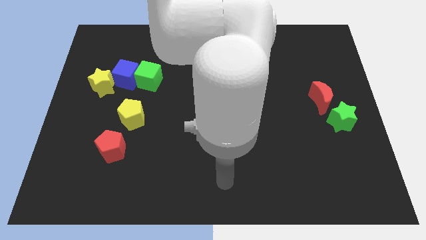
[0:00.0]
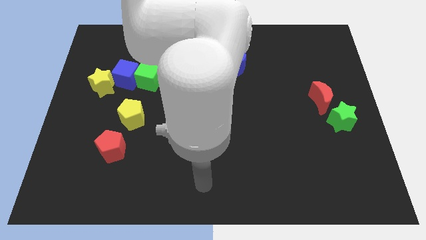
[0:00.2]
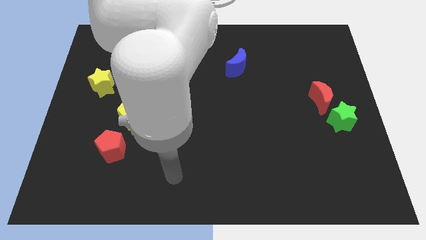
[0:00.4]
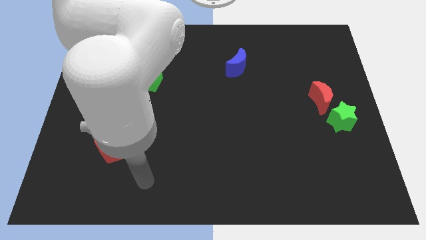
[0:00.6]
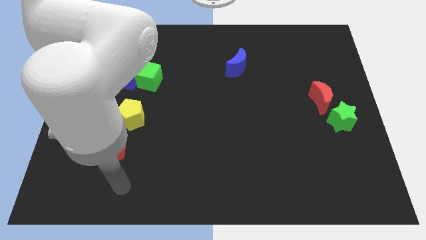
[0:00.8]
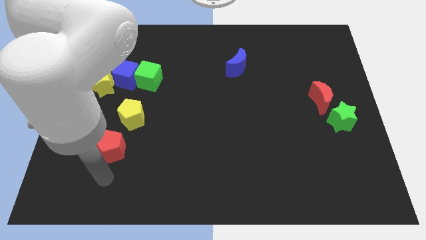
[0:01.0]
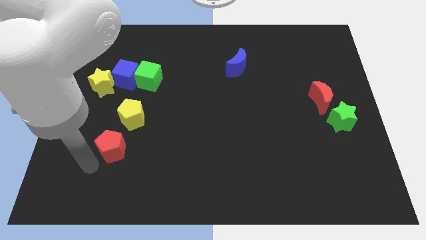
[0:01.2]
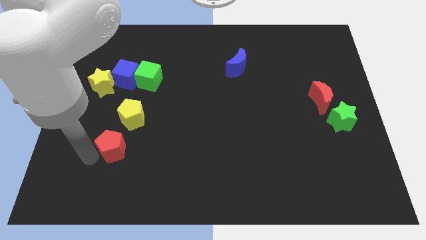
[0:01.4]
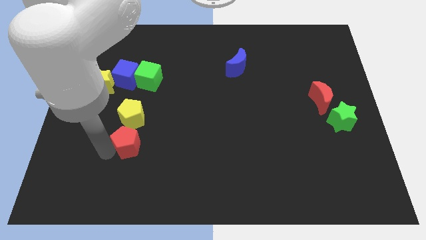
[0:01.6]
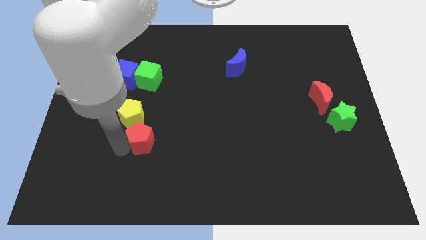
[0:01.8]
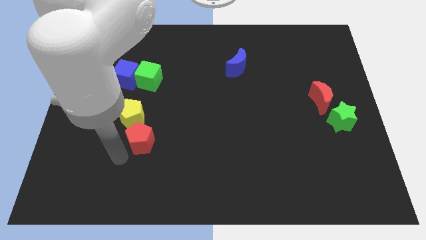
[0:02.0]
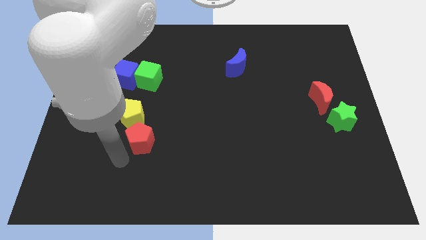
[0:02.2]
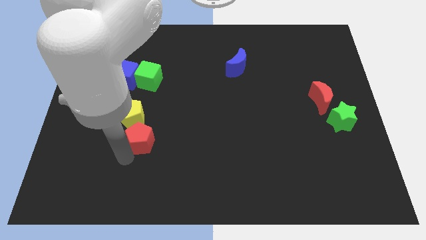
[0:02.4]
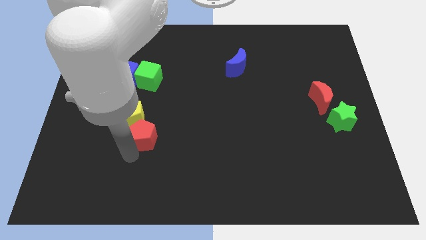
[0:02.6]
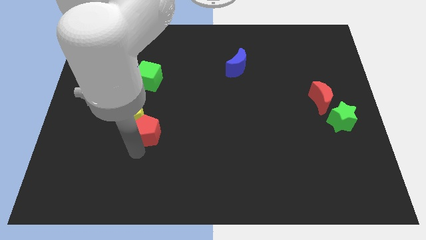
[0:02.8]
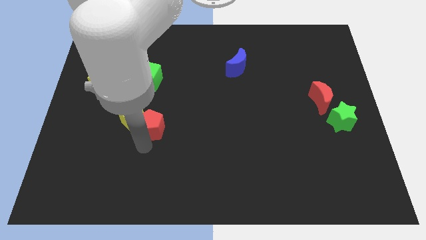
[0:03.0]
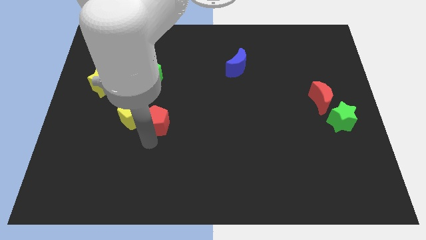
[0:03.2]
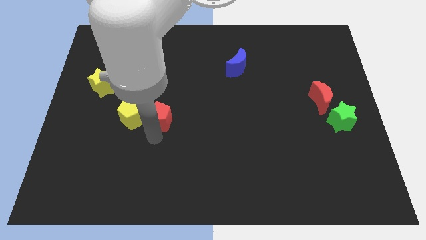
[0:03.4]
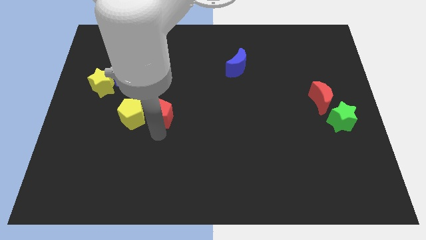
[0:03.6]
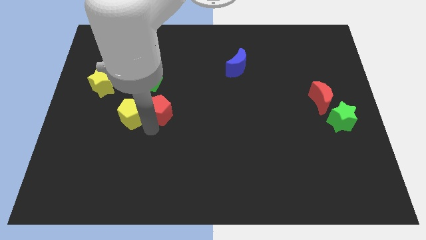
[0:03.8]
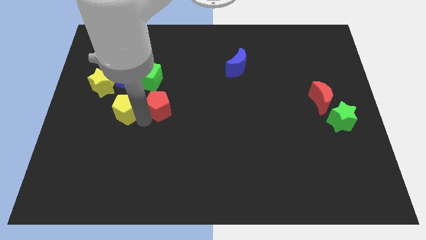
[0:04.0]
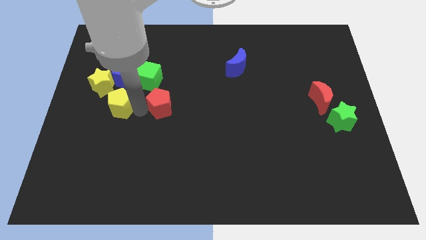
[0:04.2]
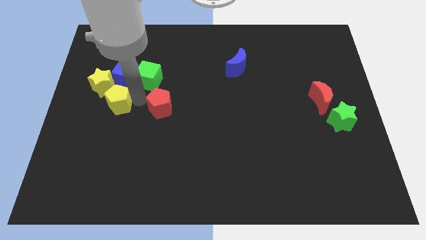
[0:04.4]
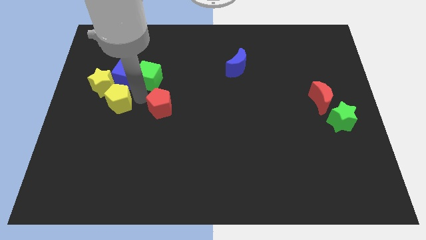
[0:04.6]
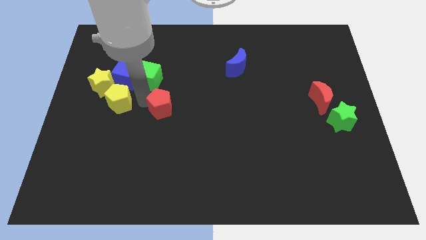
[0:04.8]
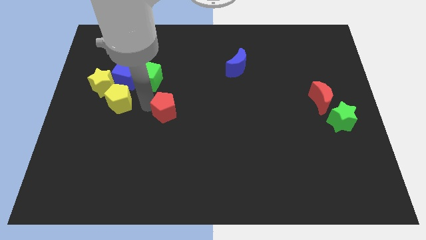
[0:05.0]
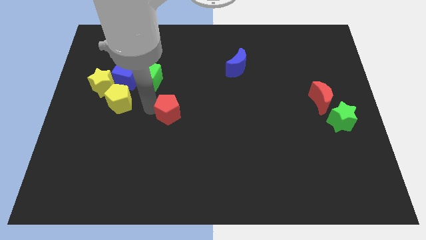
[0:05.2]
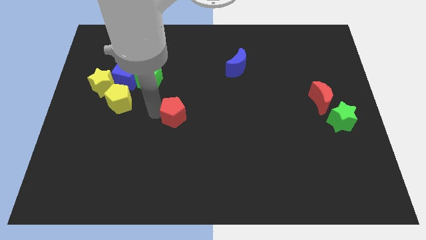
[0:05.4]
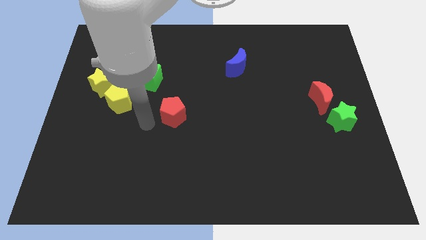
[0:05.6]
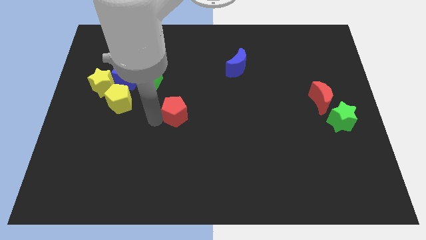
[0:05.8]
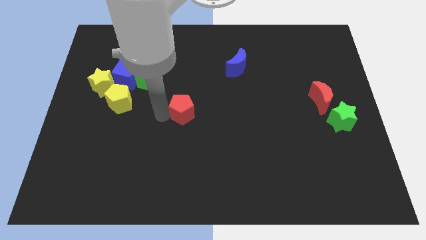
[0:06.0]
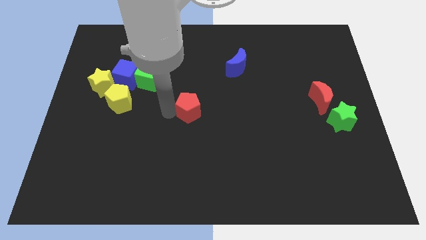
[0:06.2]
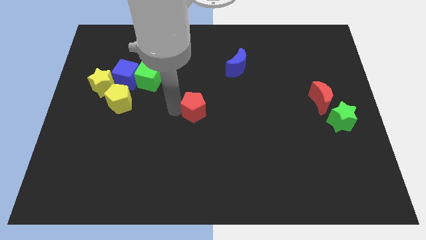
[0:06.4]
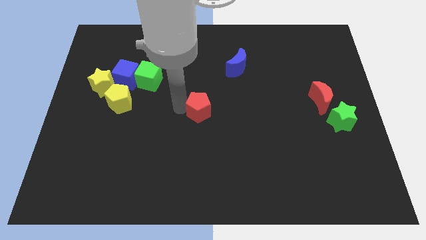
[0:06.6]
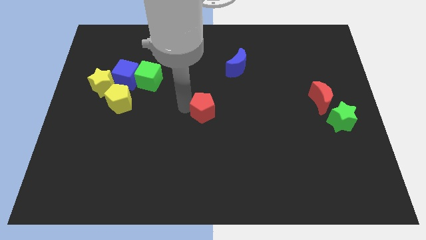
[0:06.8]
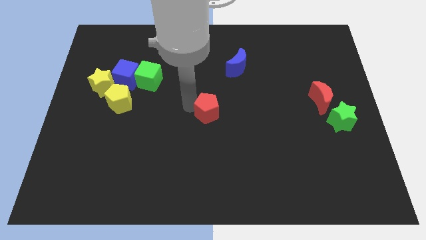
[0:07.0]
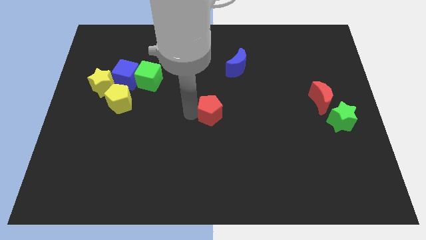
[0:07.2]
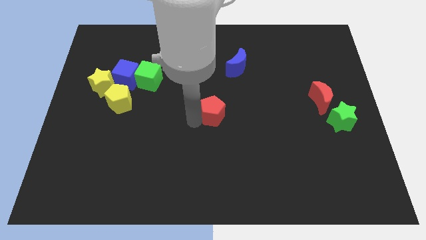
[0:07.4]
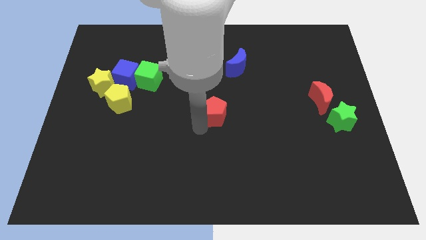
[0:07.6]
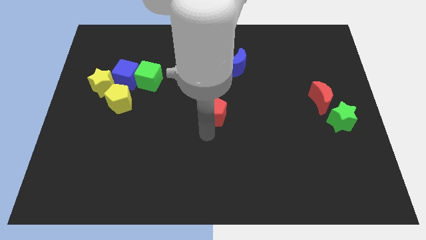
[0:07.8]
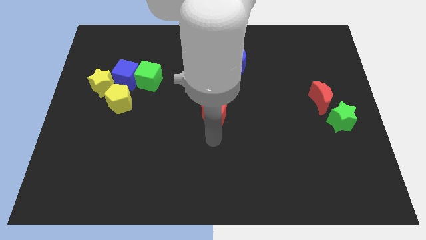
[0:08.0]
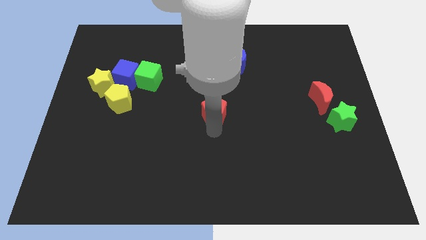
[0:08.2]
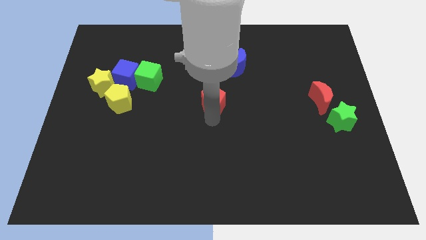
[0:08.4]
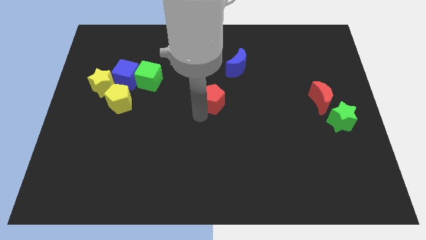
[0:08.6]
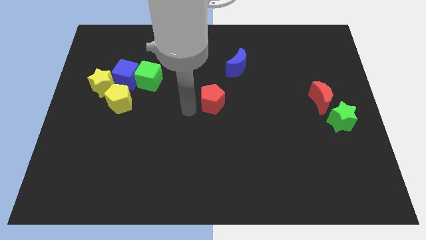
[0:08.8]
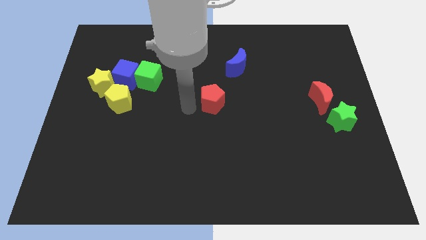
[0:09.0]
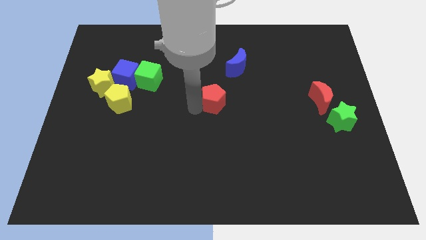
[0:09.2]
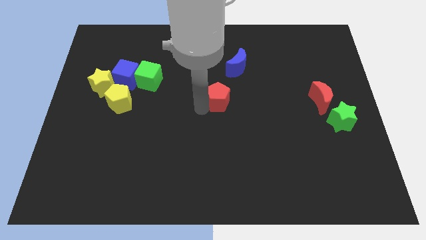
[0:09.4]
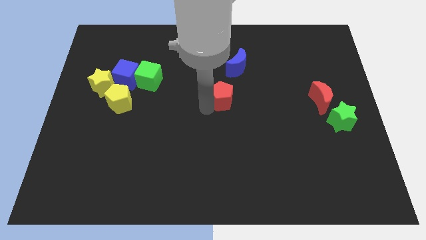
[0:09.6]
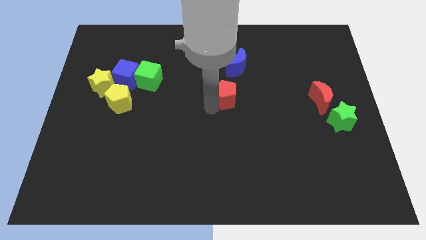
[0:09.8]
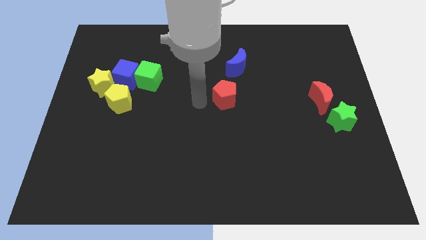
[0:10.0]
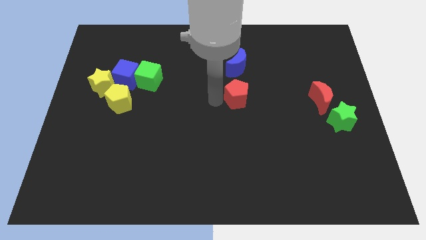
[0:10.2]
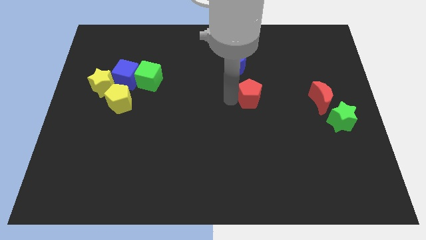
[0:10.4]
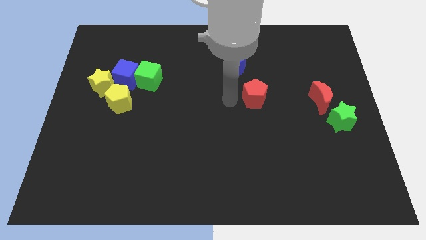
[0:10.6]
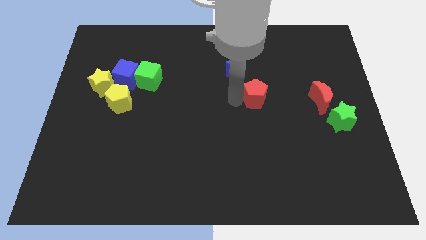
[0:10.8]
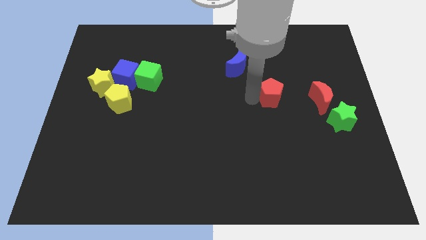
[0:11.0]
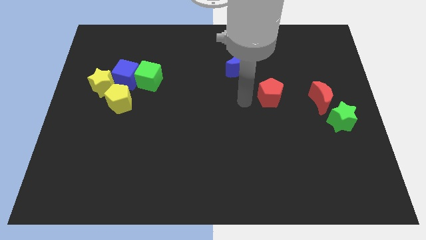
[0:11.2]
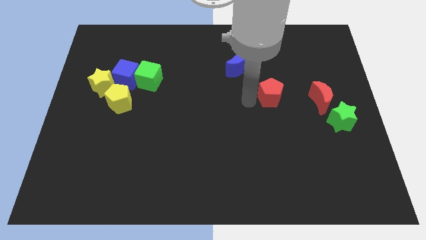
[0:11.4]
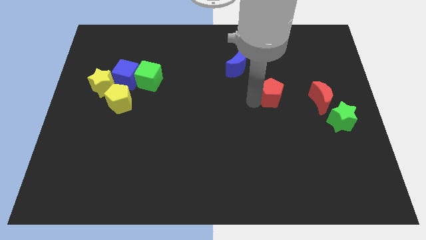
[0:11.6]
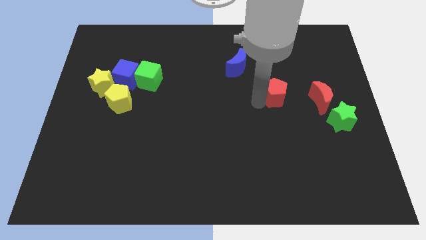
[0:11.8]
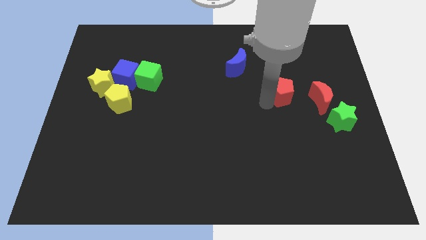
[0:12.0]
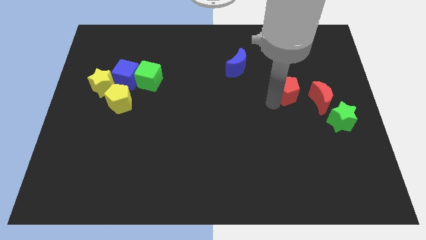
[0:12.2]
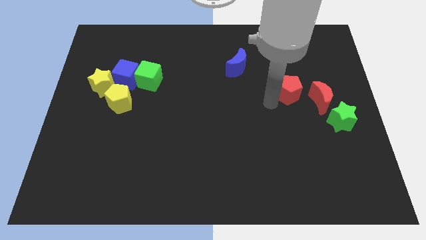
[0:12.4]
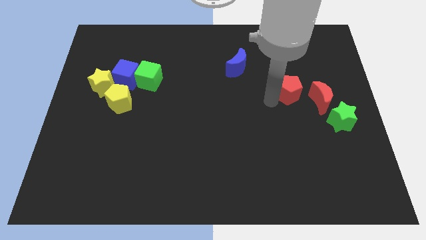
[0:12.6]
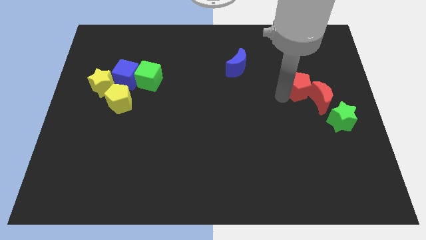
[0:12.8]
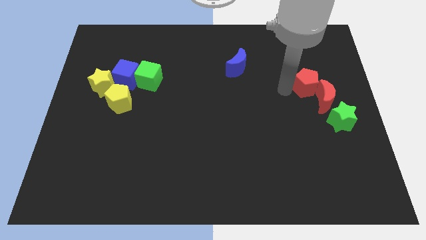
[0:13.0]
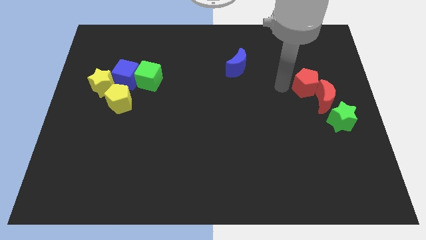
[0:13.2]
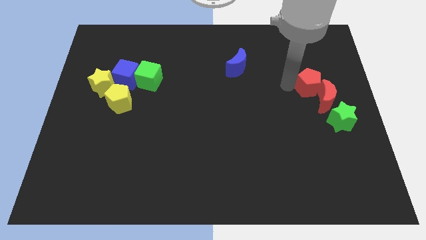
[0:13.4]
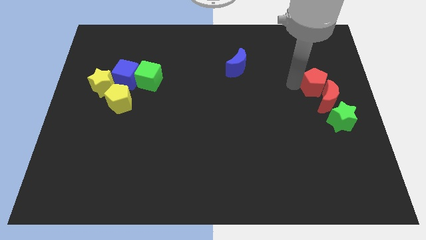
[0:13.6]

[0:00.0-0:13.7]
push the red pentagon to the top side of the green star

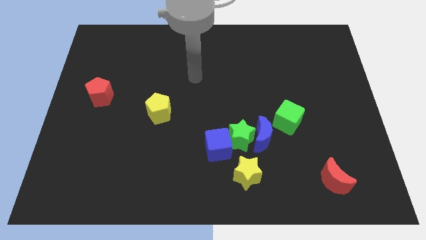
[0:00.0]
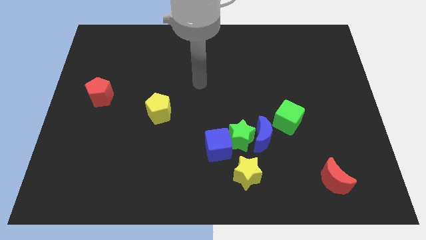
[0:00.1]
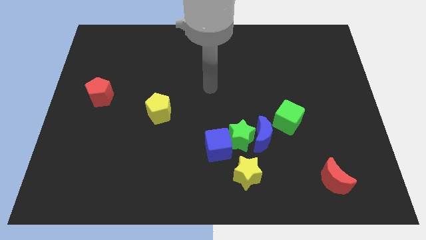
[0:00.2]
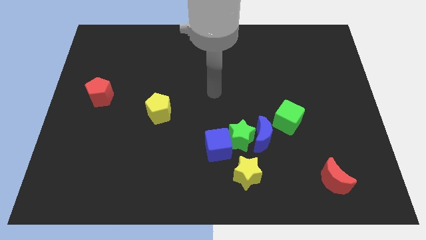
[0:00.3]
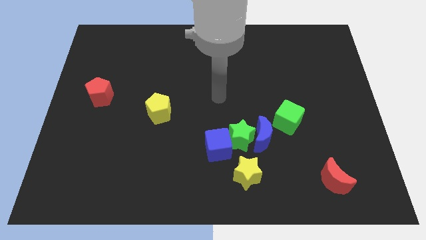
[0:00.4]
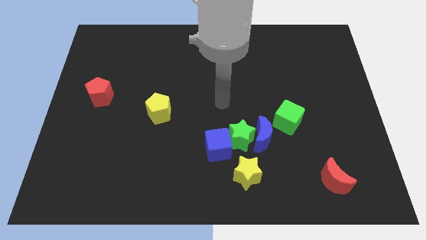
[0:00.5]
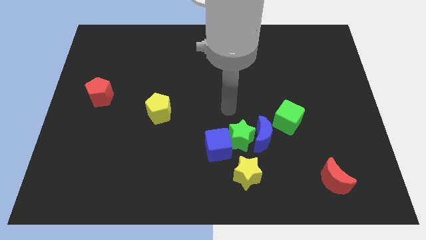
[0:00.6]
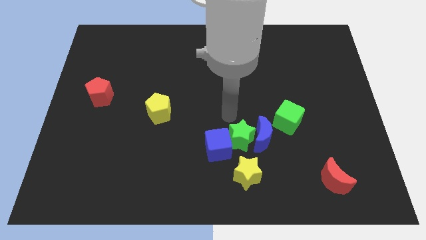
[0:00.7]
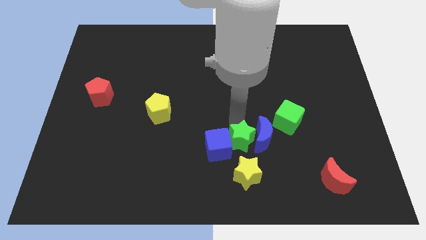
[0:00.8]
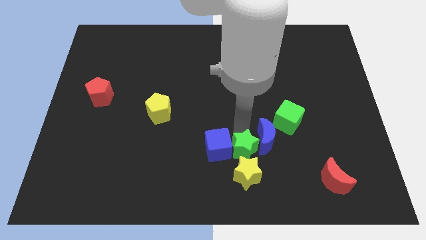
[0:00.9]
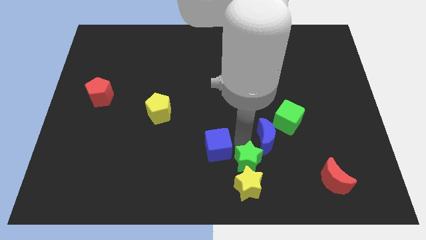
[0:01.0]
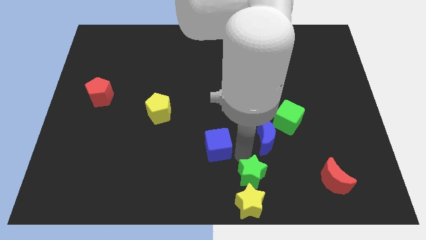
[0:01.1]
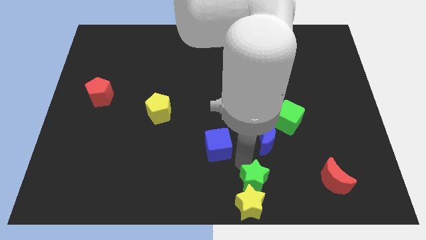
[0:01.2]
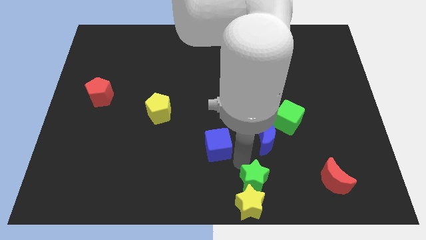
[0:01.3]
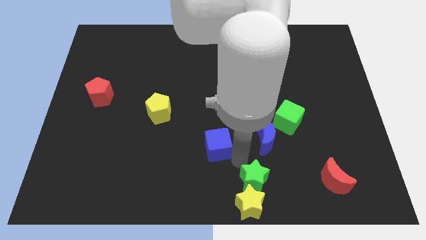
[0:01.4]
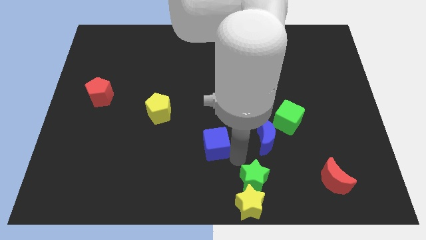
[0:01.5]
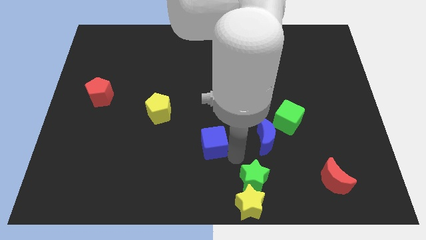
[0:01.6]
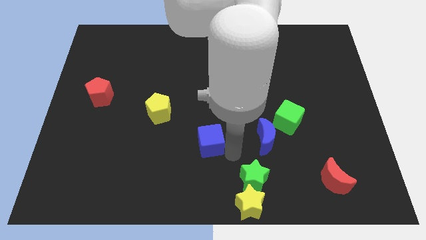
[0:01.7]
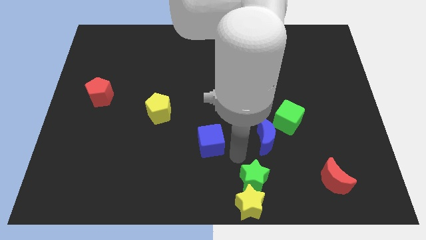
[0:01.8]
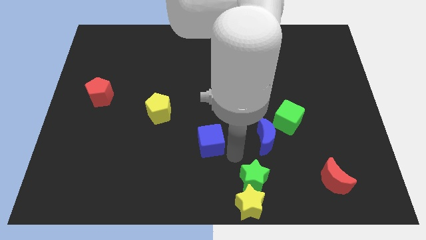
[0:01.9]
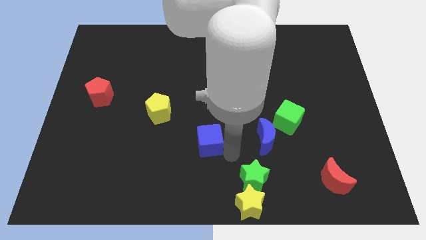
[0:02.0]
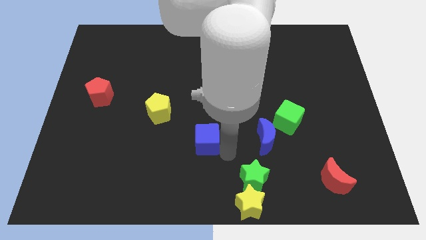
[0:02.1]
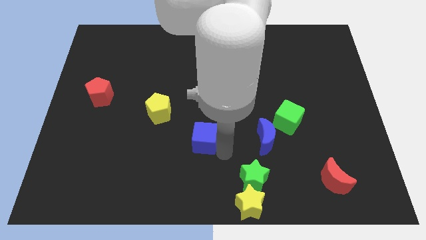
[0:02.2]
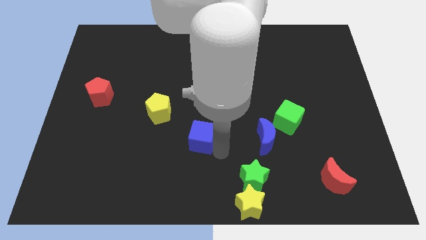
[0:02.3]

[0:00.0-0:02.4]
slide the blue cube to the bottom right of the yellow pentagon
